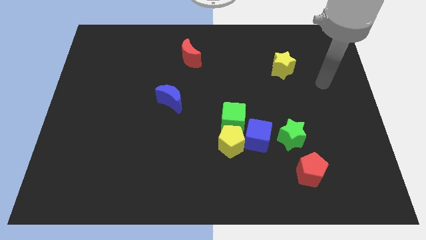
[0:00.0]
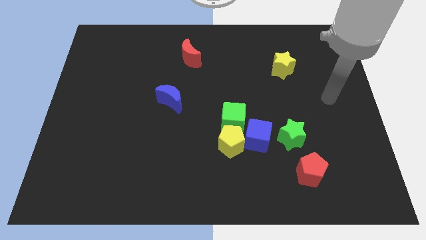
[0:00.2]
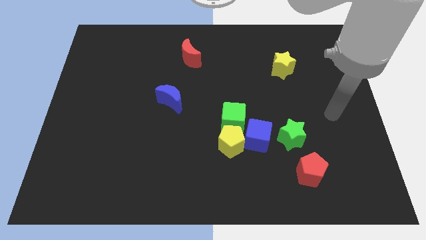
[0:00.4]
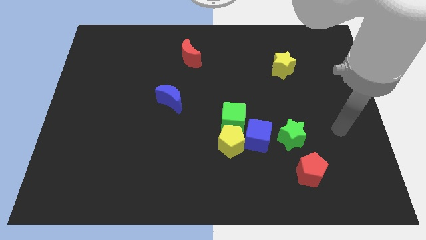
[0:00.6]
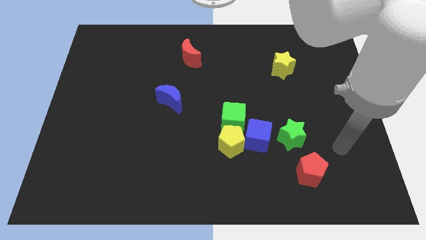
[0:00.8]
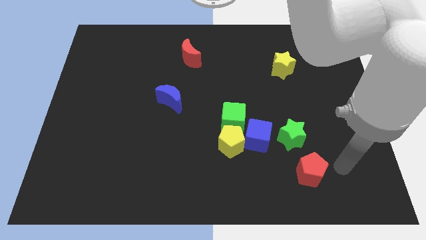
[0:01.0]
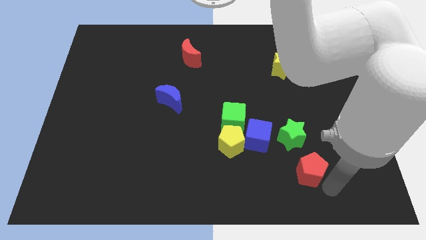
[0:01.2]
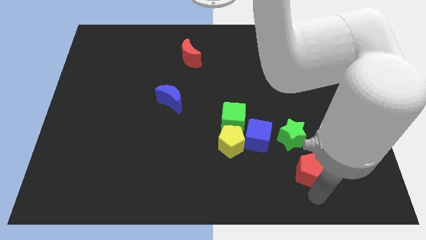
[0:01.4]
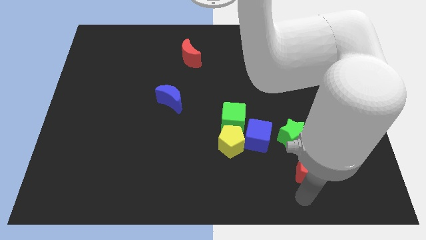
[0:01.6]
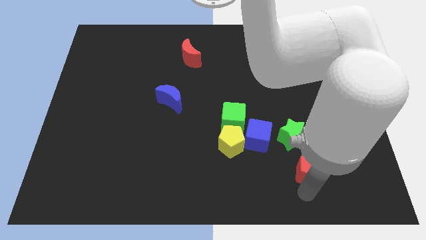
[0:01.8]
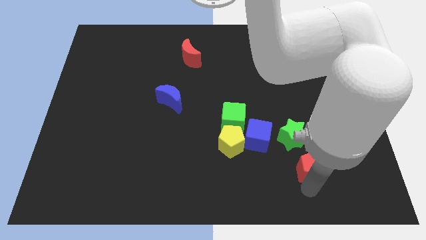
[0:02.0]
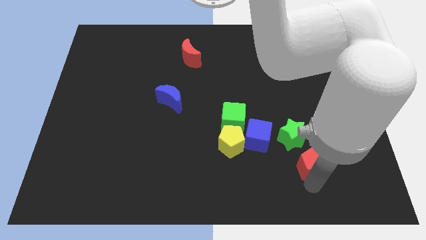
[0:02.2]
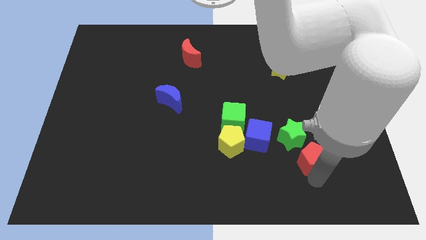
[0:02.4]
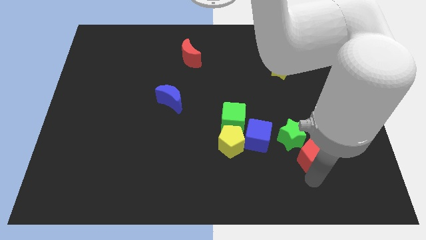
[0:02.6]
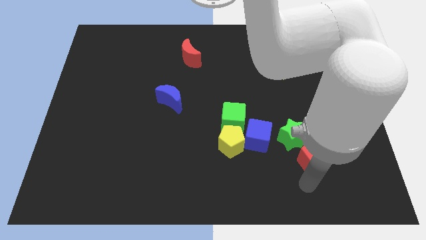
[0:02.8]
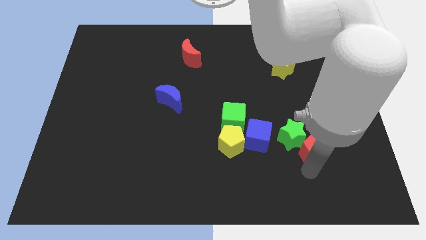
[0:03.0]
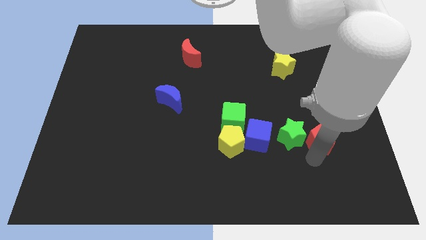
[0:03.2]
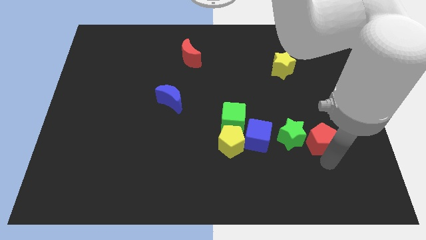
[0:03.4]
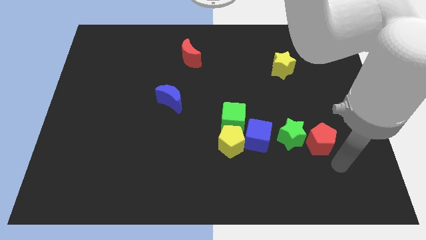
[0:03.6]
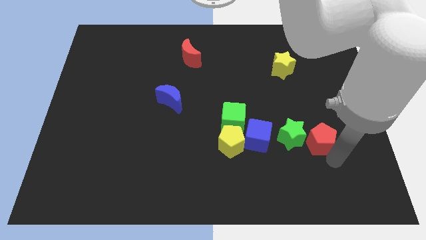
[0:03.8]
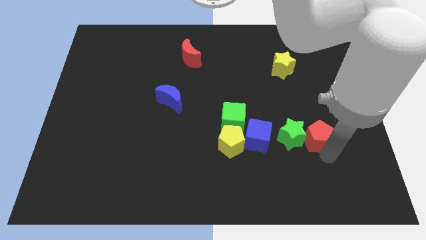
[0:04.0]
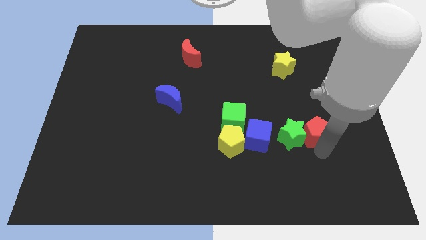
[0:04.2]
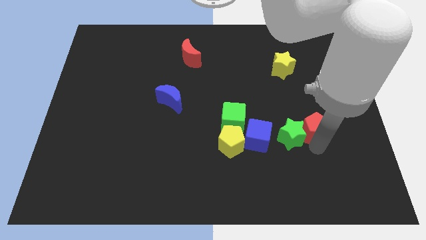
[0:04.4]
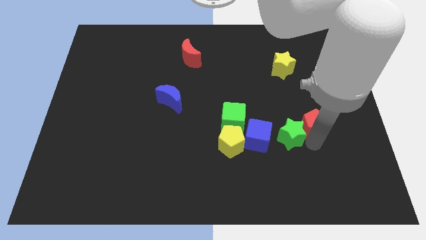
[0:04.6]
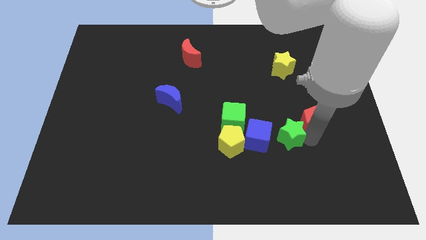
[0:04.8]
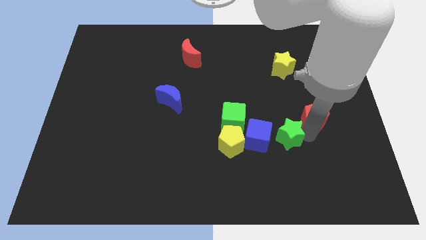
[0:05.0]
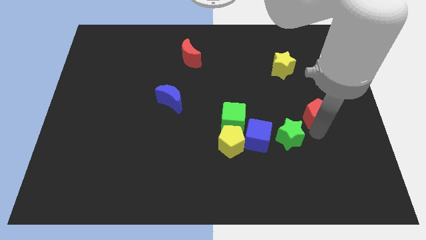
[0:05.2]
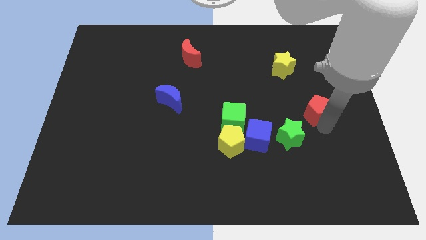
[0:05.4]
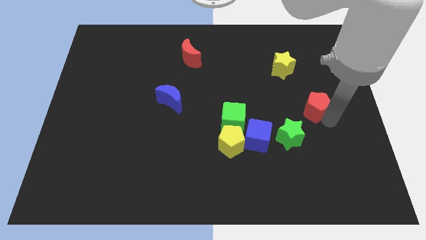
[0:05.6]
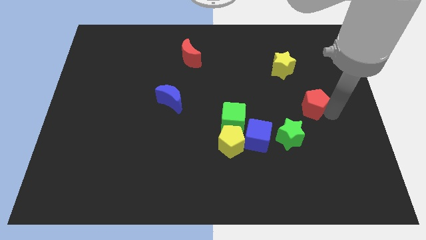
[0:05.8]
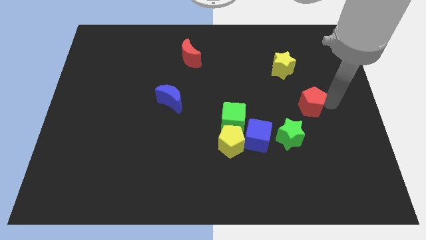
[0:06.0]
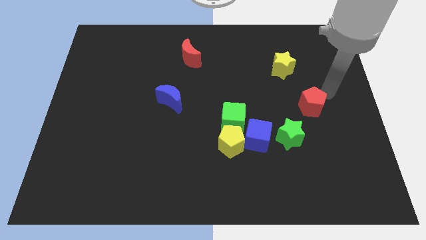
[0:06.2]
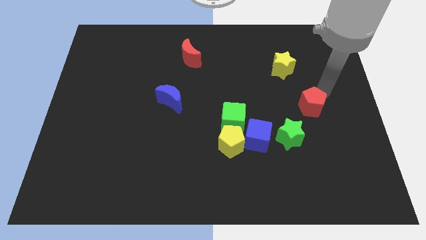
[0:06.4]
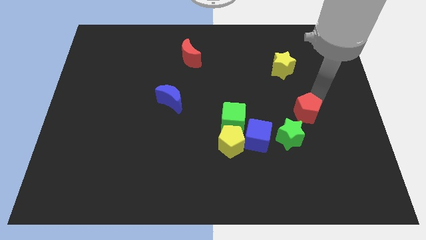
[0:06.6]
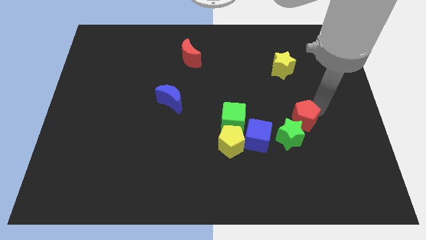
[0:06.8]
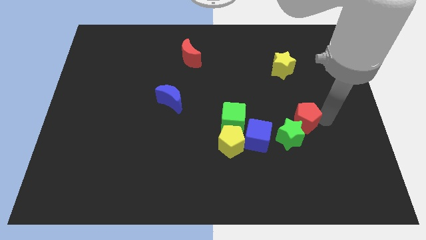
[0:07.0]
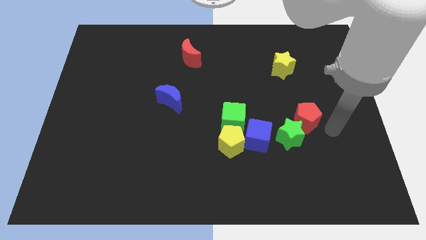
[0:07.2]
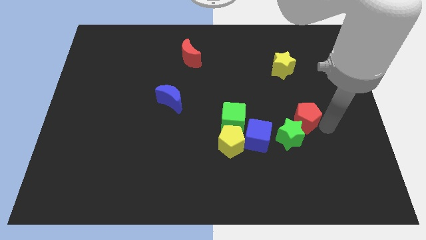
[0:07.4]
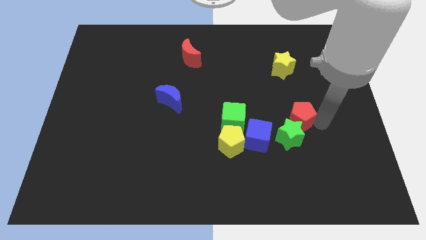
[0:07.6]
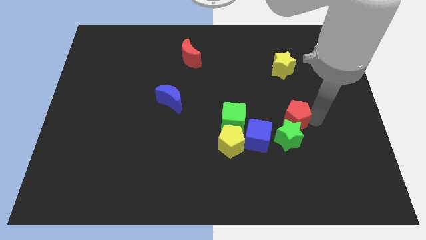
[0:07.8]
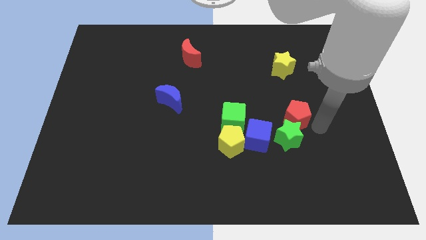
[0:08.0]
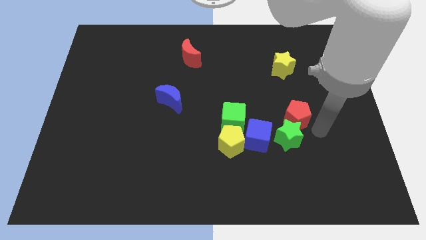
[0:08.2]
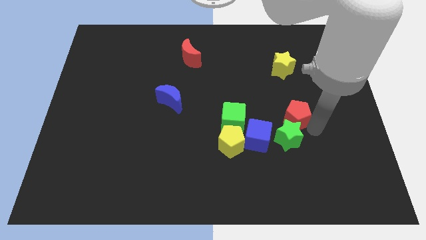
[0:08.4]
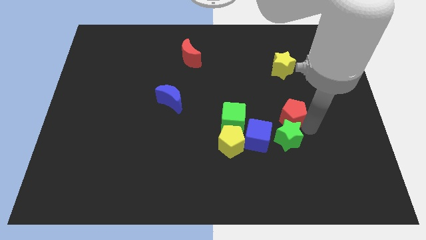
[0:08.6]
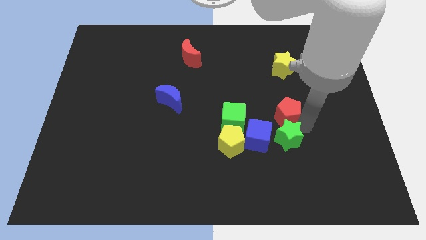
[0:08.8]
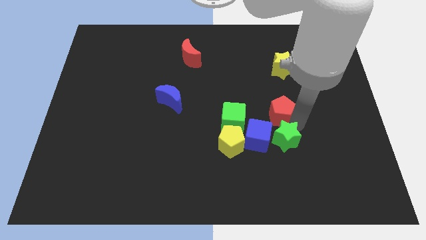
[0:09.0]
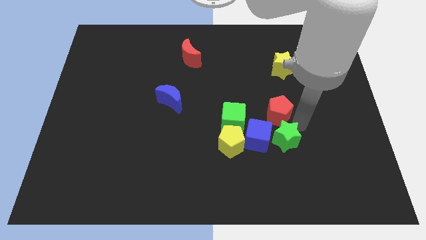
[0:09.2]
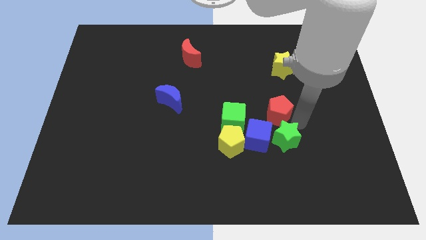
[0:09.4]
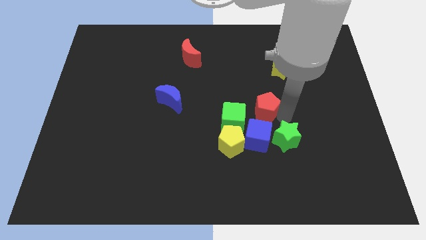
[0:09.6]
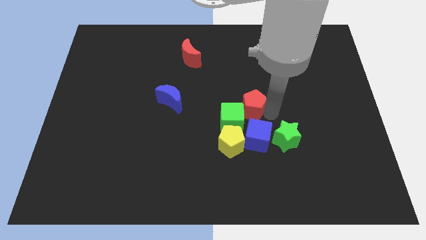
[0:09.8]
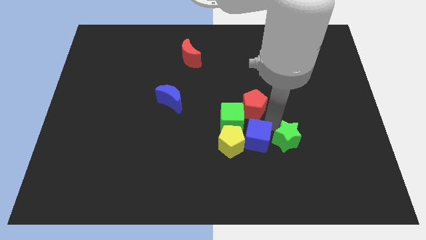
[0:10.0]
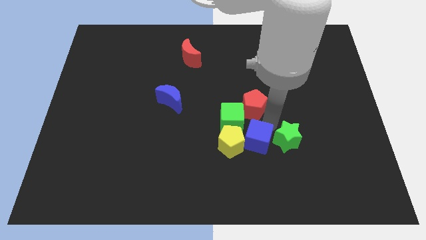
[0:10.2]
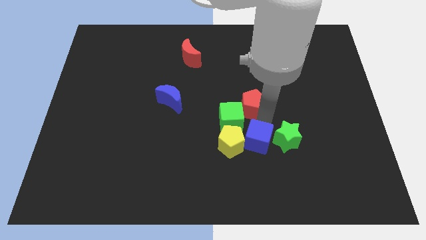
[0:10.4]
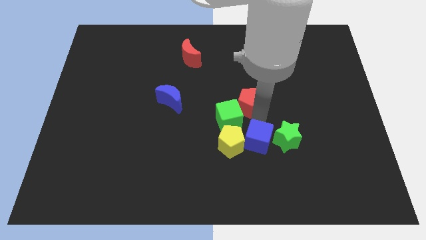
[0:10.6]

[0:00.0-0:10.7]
move the red pentagon up and left diagonally

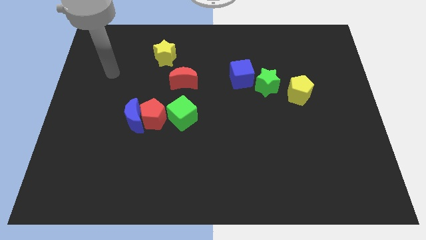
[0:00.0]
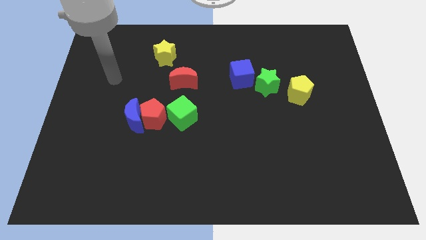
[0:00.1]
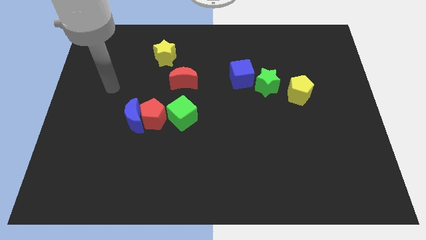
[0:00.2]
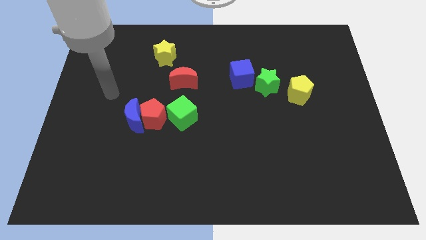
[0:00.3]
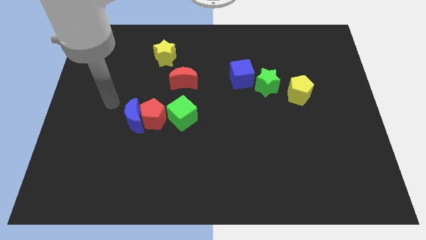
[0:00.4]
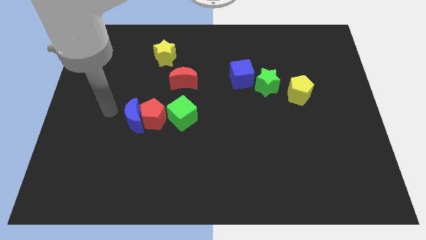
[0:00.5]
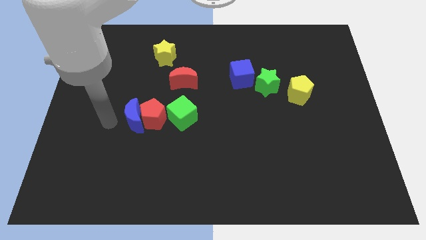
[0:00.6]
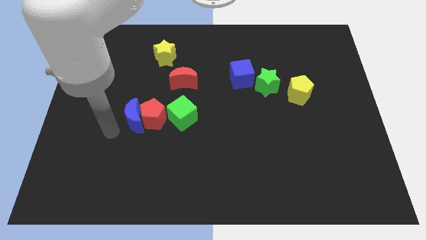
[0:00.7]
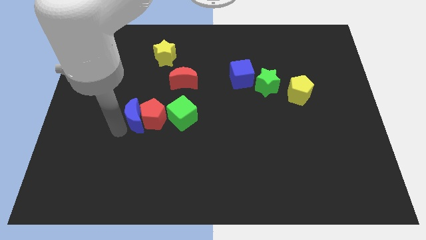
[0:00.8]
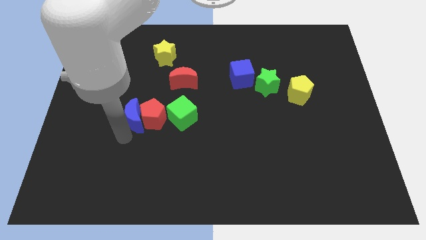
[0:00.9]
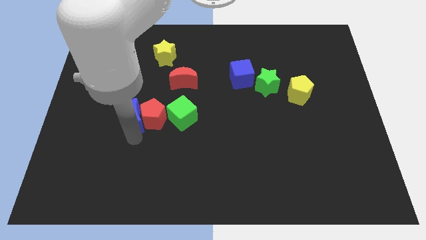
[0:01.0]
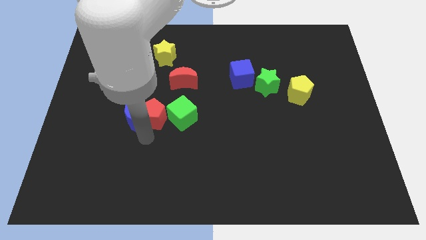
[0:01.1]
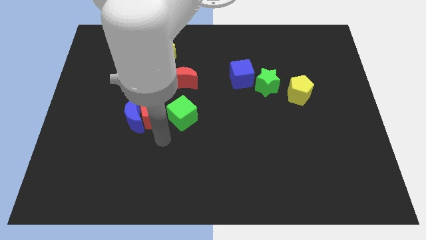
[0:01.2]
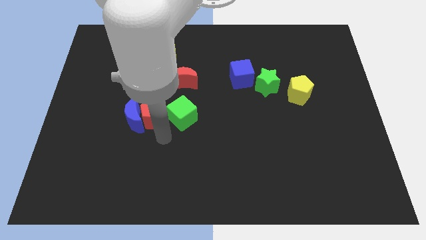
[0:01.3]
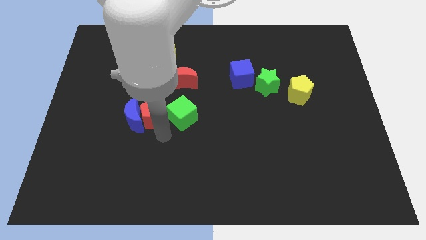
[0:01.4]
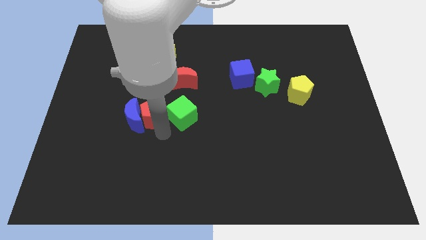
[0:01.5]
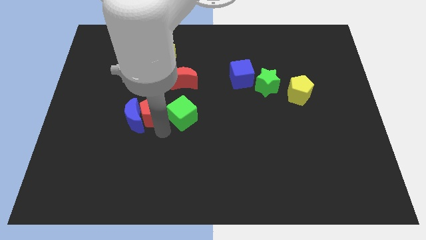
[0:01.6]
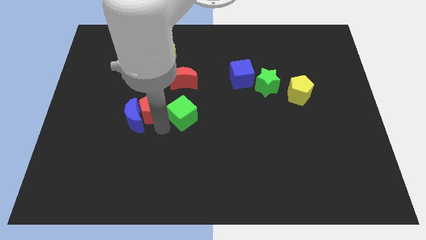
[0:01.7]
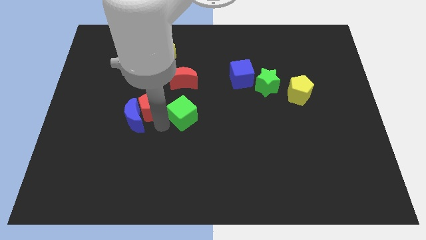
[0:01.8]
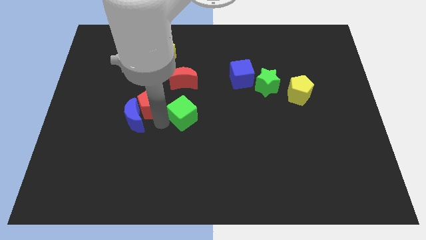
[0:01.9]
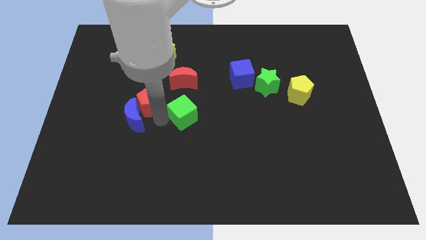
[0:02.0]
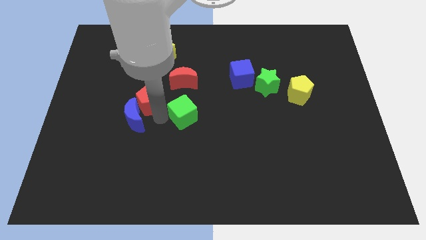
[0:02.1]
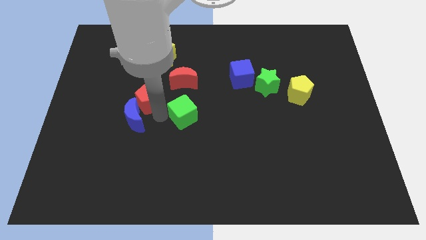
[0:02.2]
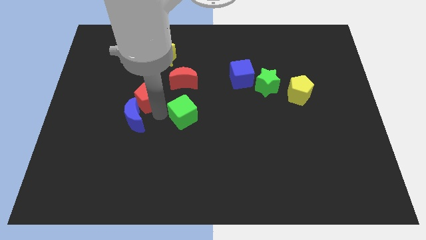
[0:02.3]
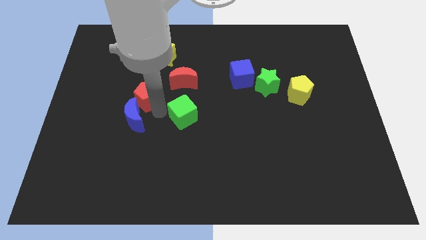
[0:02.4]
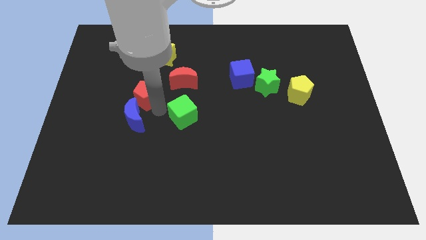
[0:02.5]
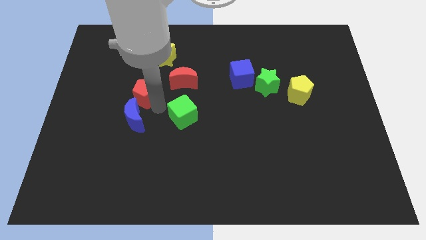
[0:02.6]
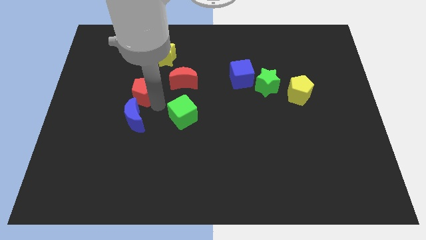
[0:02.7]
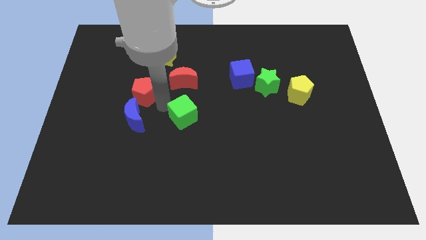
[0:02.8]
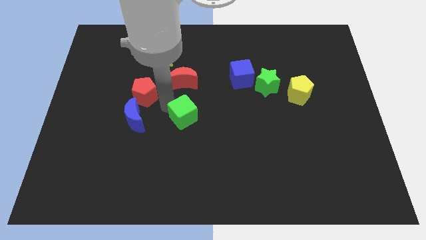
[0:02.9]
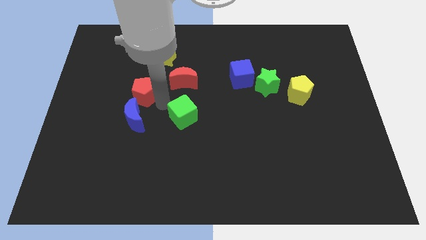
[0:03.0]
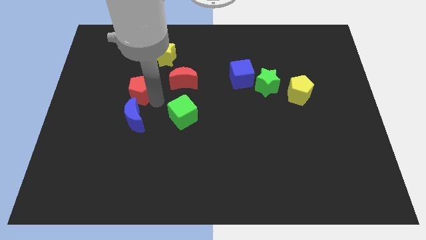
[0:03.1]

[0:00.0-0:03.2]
move the red pentagon a little bit upwards and then to the left
